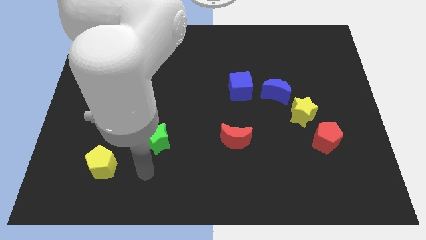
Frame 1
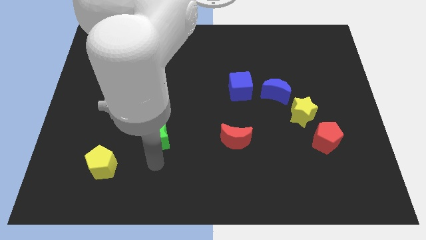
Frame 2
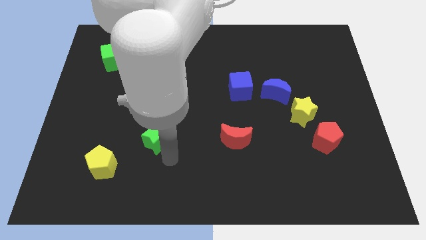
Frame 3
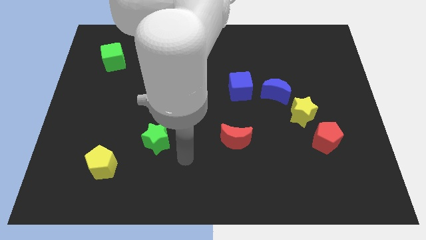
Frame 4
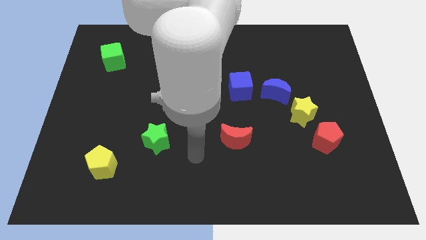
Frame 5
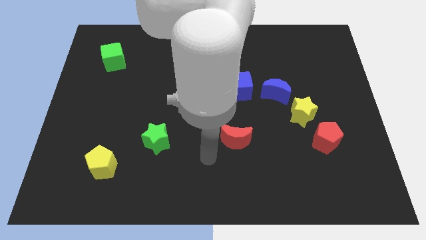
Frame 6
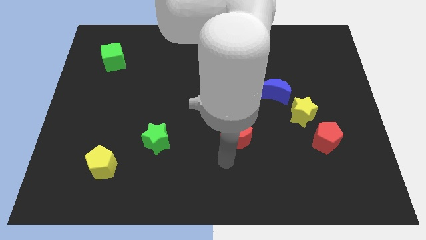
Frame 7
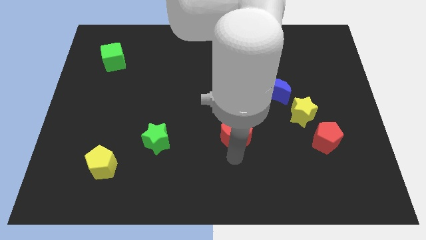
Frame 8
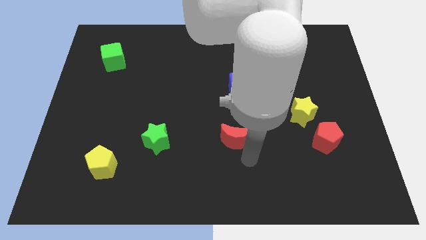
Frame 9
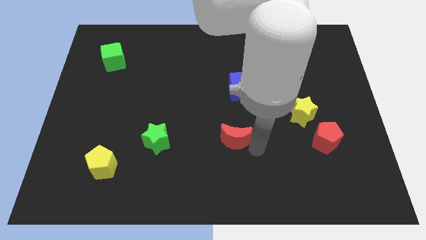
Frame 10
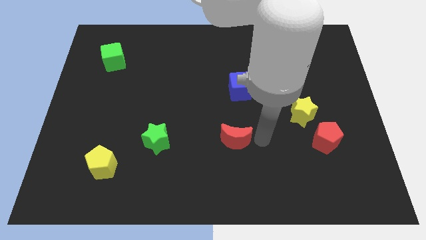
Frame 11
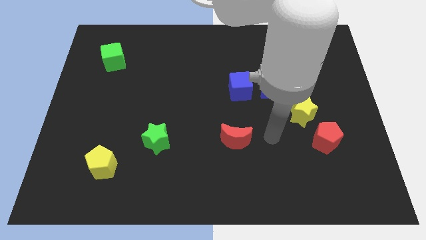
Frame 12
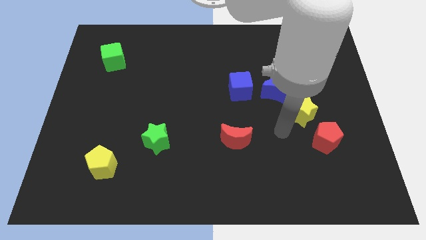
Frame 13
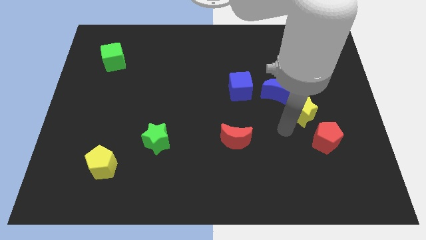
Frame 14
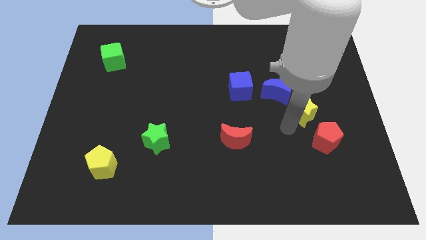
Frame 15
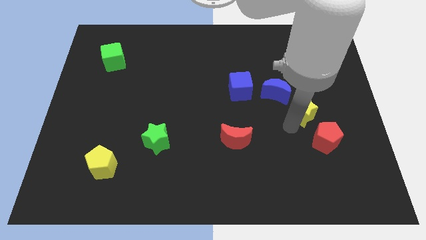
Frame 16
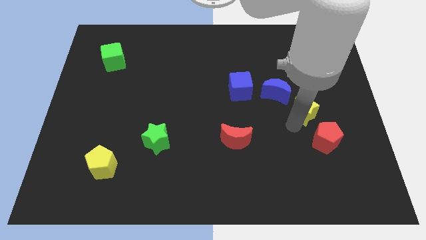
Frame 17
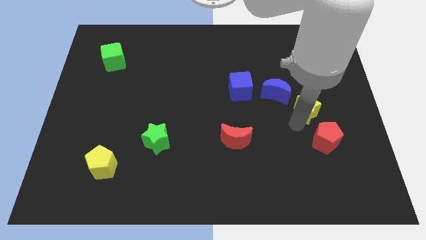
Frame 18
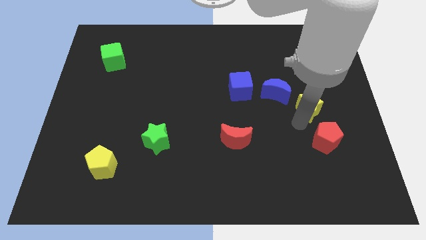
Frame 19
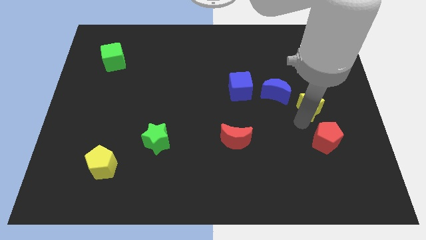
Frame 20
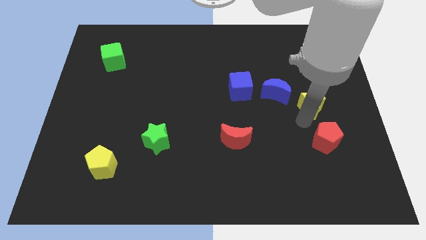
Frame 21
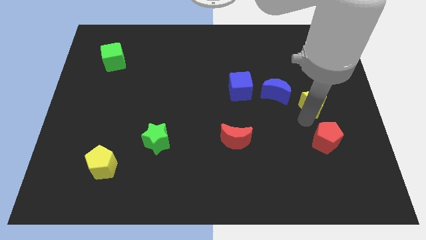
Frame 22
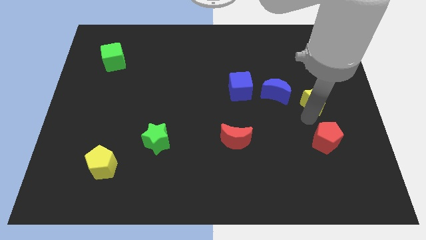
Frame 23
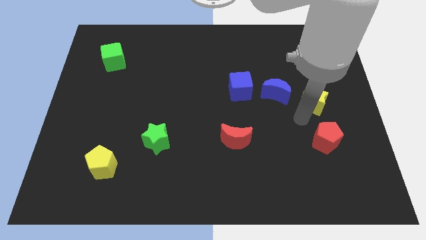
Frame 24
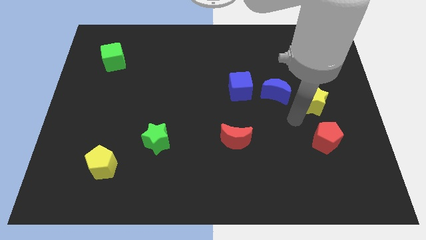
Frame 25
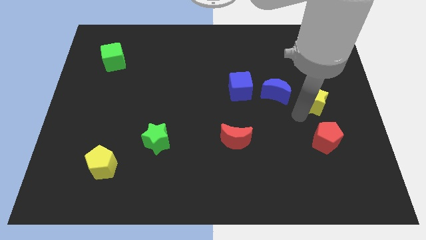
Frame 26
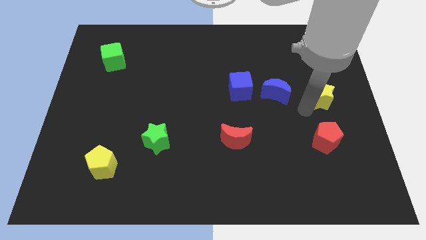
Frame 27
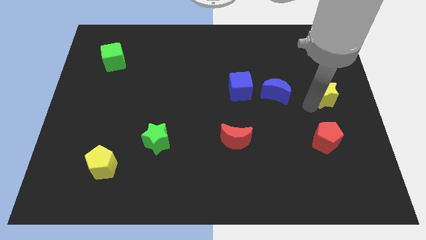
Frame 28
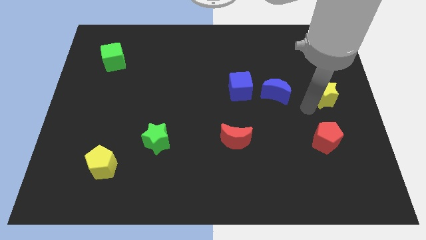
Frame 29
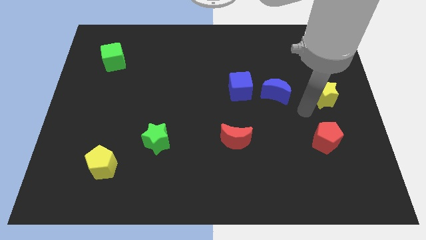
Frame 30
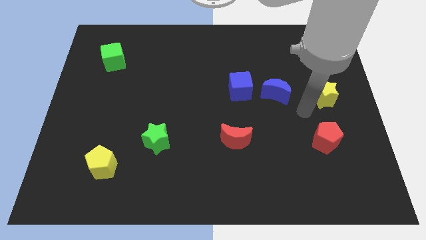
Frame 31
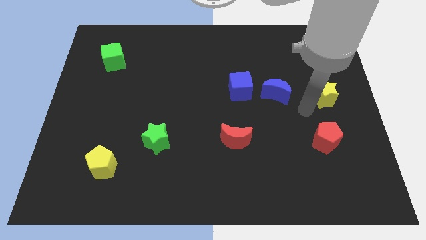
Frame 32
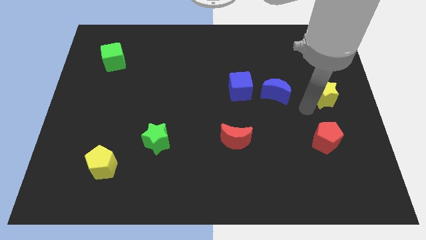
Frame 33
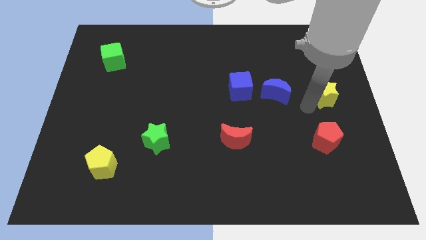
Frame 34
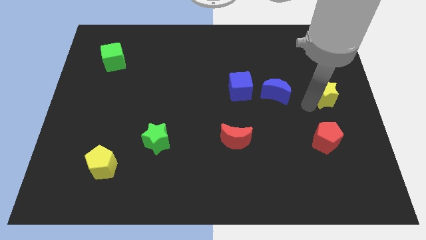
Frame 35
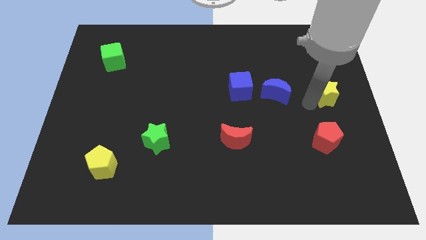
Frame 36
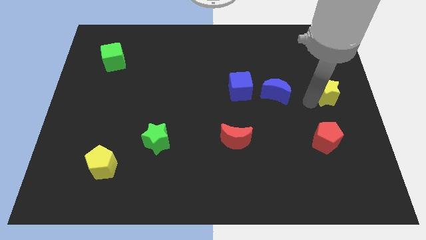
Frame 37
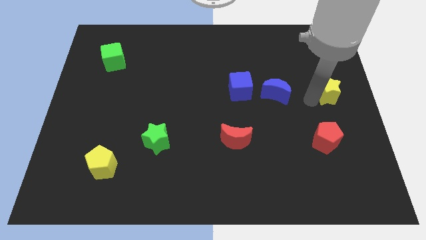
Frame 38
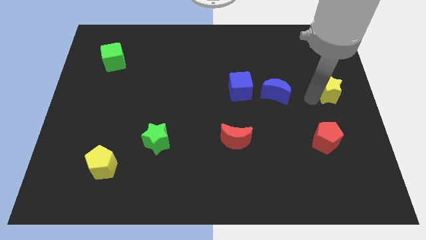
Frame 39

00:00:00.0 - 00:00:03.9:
move the yellow star away from the blue moon and red pentagon

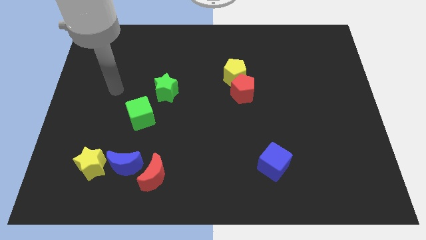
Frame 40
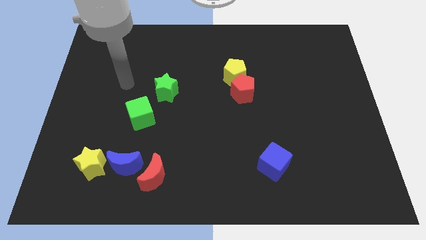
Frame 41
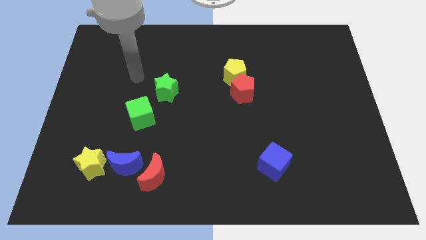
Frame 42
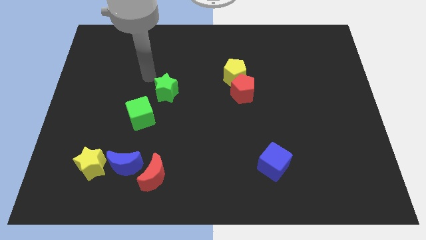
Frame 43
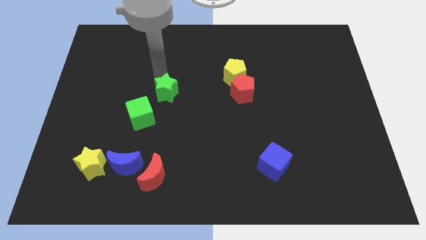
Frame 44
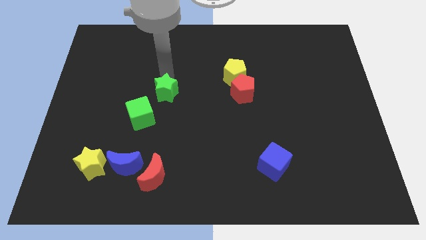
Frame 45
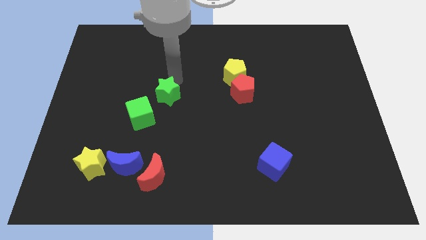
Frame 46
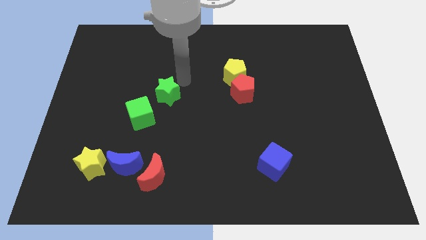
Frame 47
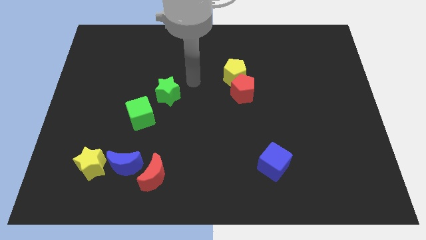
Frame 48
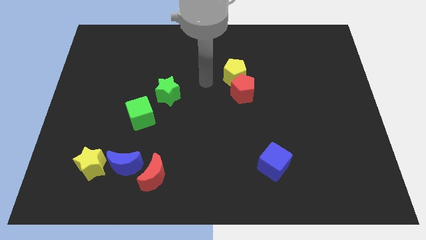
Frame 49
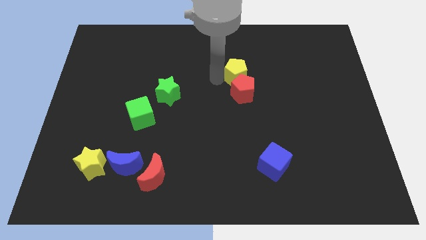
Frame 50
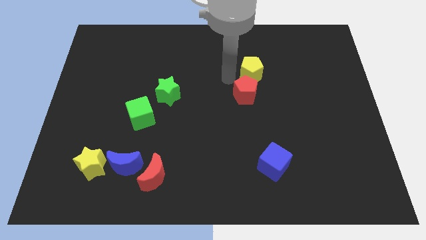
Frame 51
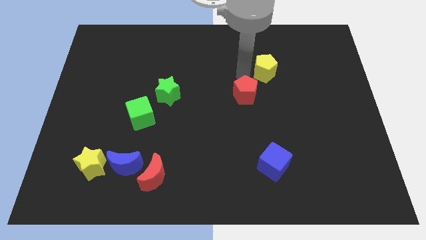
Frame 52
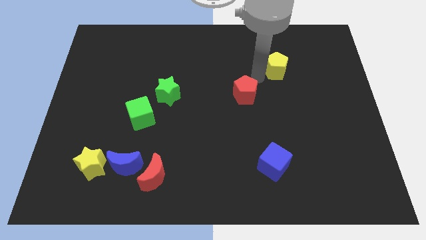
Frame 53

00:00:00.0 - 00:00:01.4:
pull the red pentagon apart from the yellow pentagon

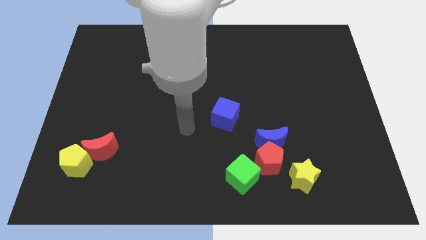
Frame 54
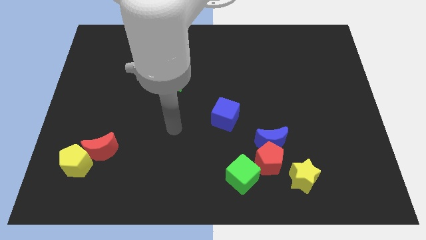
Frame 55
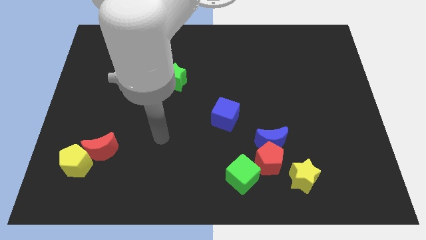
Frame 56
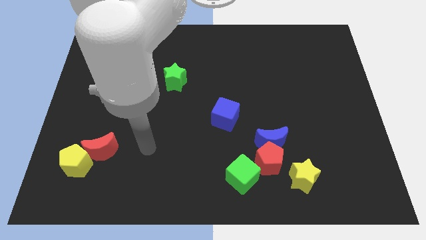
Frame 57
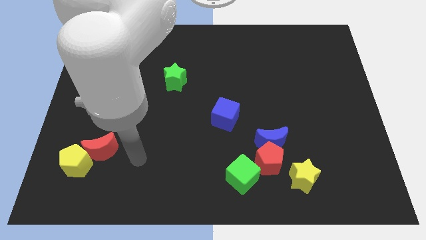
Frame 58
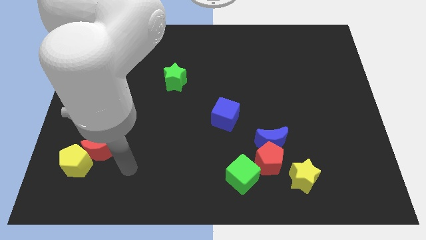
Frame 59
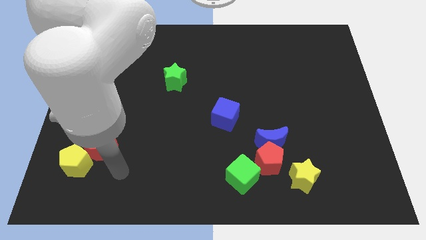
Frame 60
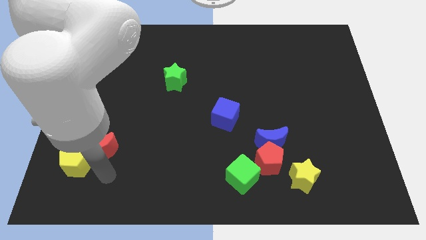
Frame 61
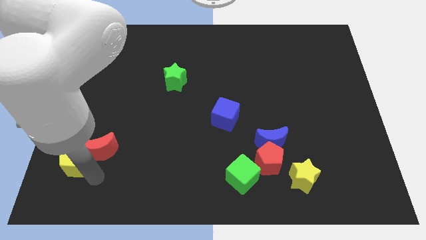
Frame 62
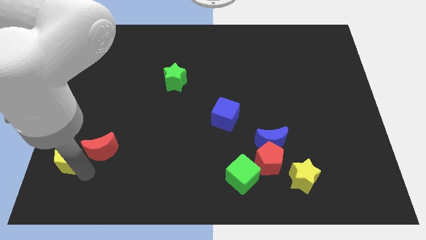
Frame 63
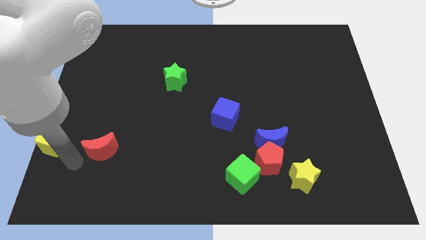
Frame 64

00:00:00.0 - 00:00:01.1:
separate the red moon from the yellow pentagon

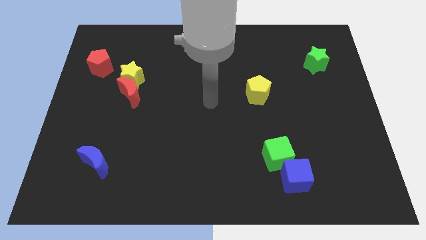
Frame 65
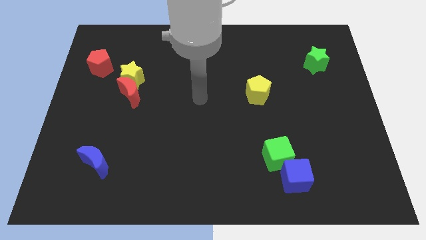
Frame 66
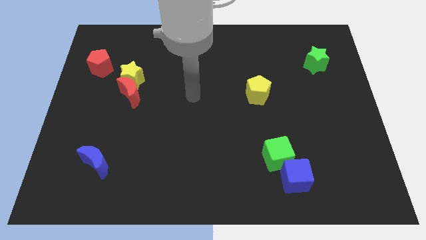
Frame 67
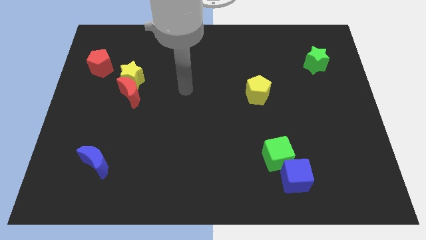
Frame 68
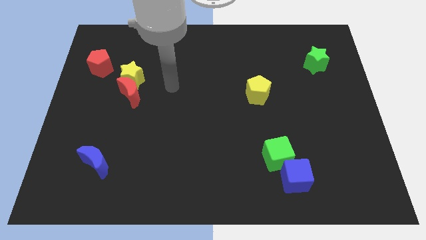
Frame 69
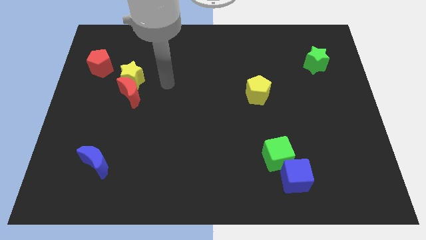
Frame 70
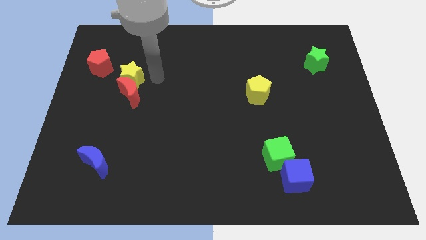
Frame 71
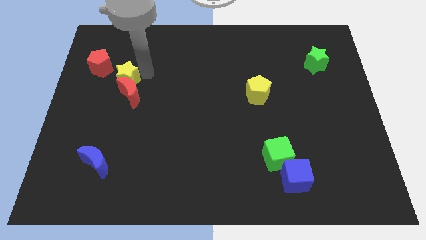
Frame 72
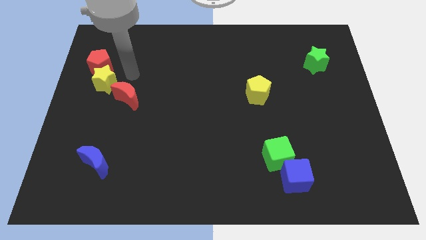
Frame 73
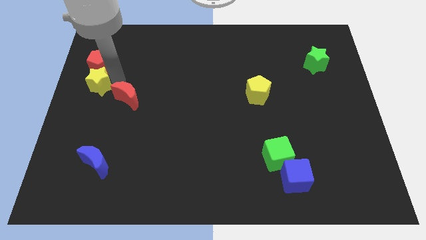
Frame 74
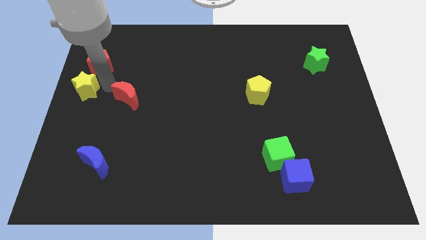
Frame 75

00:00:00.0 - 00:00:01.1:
move the red moon away from the yellow star

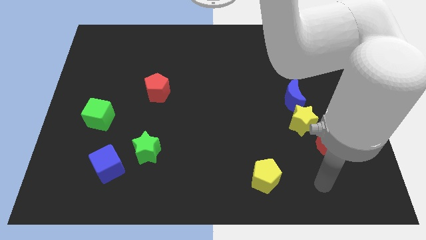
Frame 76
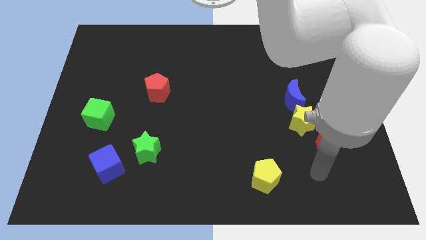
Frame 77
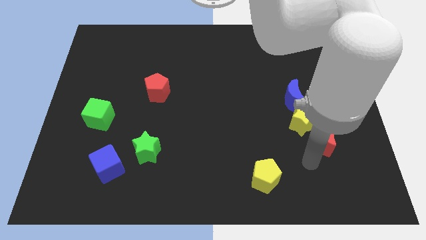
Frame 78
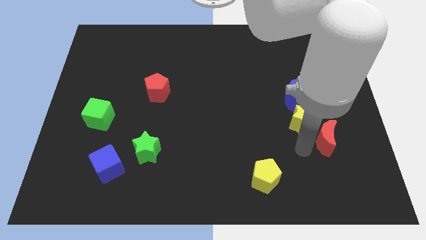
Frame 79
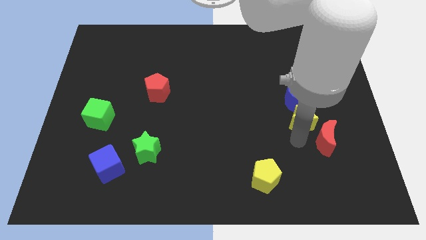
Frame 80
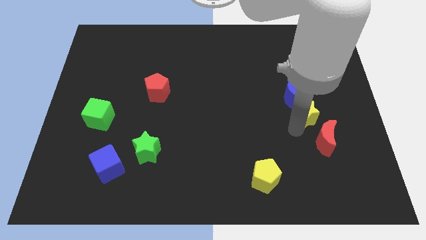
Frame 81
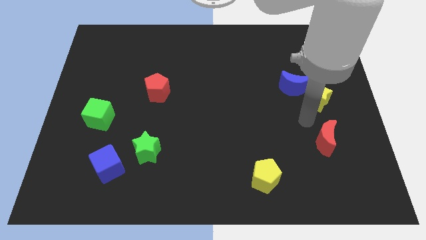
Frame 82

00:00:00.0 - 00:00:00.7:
separate the red moon from the yellow star

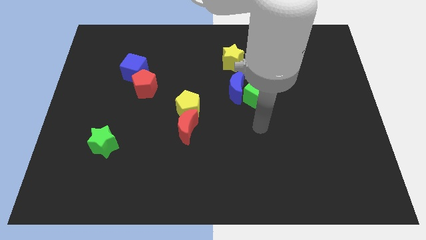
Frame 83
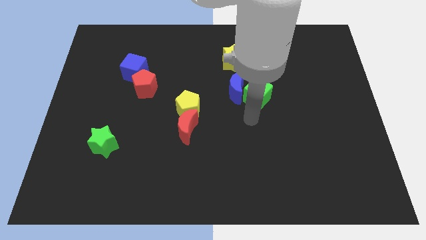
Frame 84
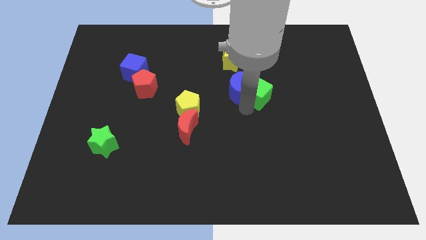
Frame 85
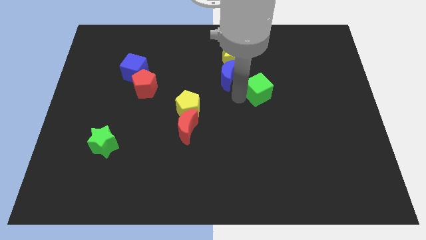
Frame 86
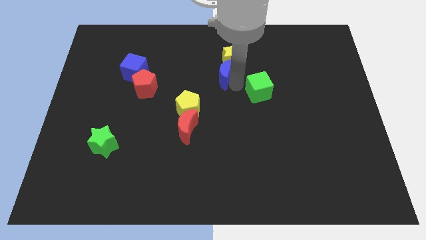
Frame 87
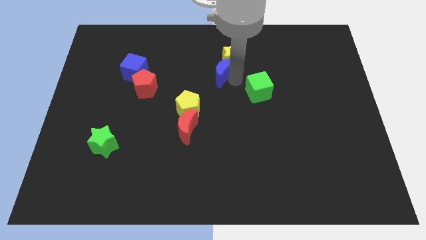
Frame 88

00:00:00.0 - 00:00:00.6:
move the green cube away from the blue moon

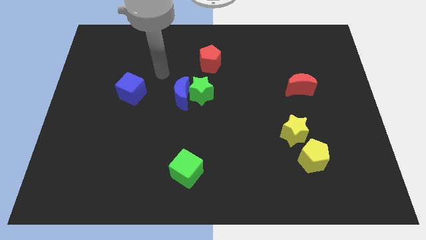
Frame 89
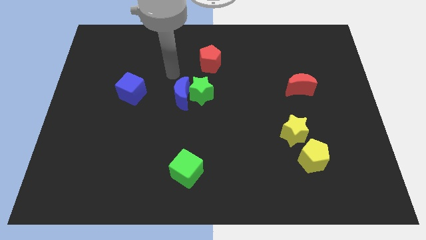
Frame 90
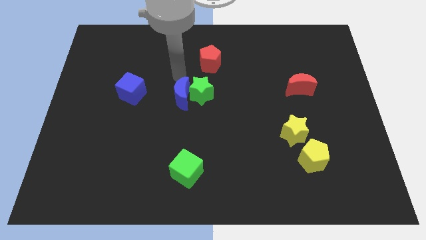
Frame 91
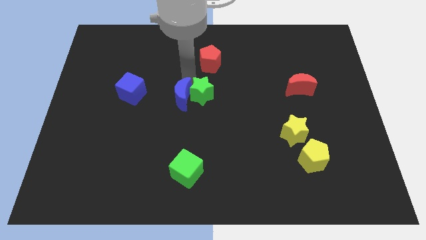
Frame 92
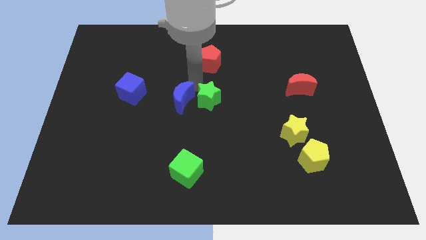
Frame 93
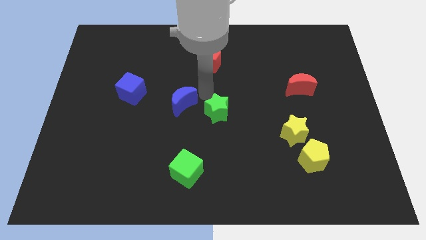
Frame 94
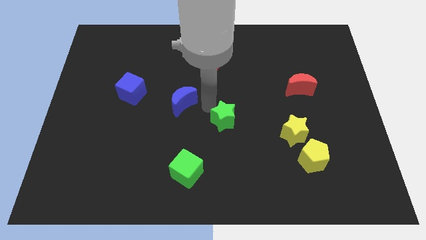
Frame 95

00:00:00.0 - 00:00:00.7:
move the blue moon away from the green star
